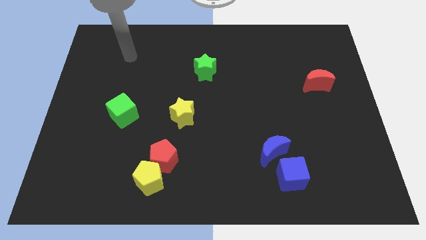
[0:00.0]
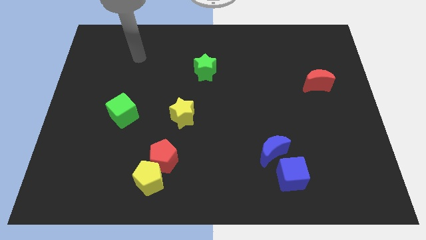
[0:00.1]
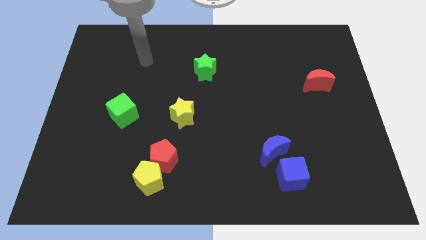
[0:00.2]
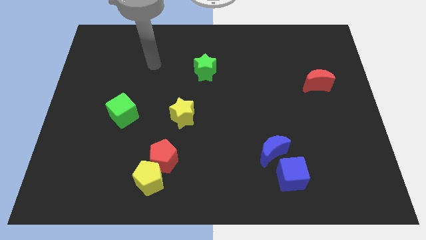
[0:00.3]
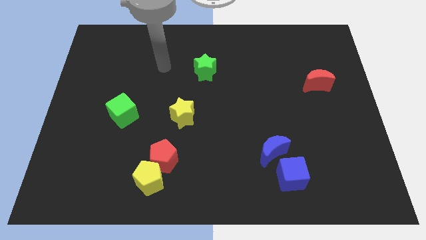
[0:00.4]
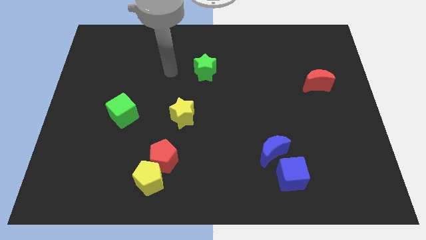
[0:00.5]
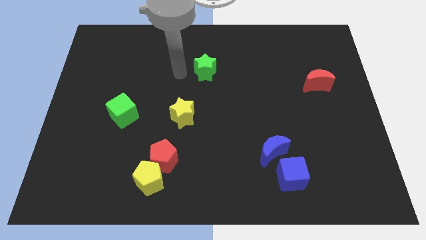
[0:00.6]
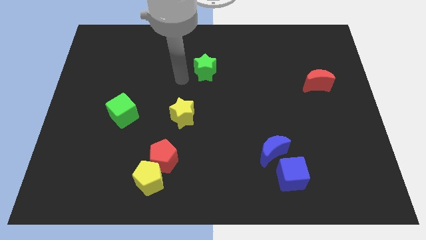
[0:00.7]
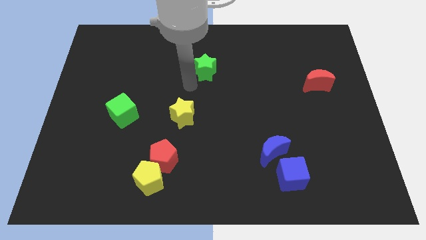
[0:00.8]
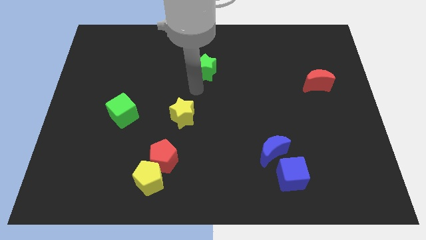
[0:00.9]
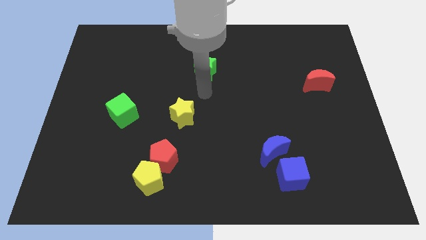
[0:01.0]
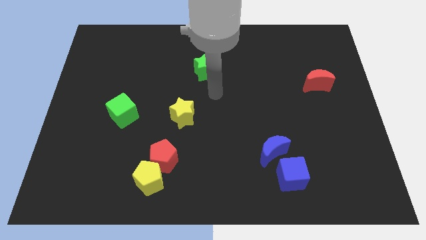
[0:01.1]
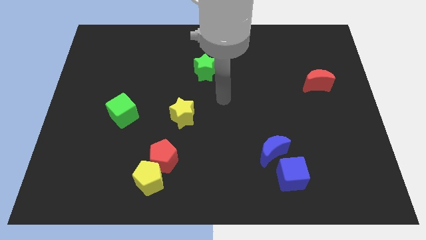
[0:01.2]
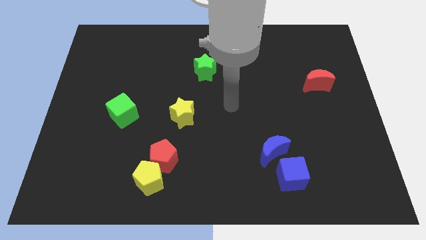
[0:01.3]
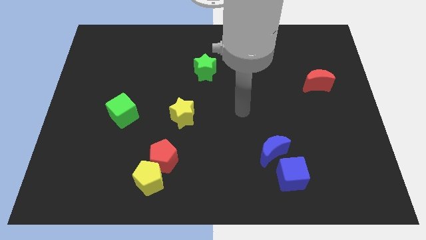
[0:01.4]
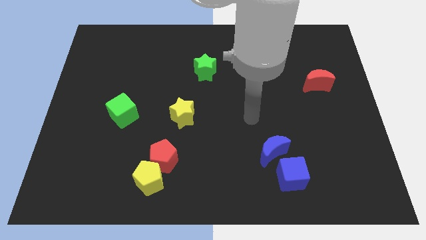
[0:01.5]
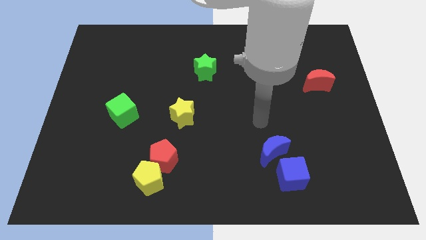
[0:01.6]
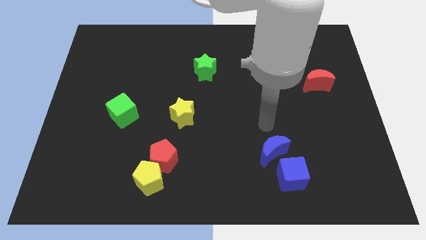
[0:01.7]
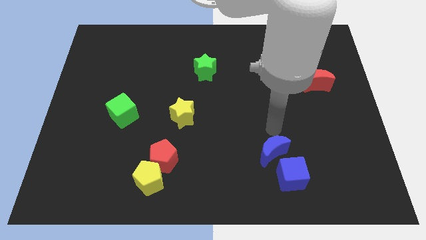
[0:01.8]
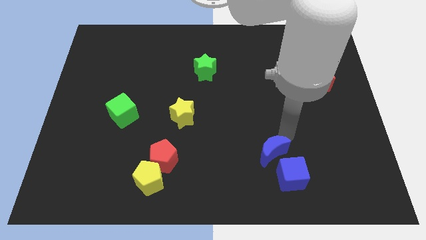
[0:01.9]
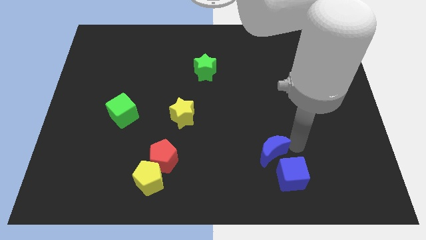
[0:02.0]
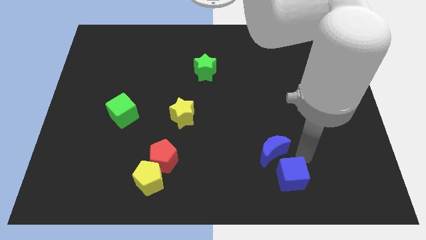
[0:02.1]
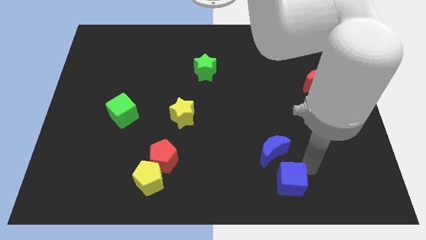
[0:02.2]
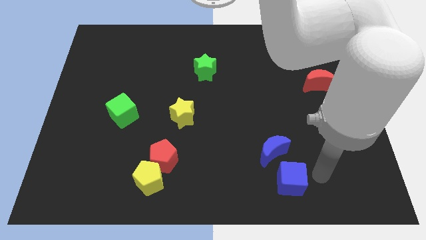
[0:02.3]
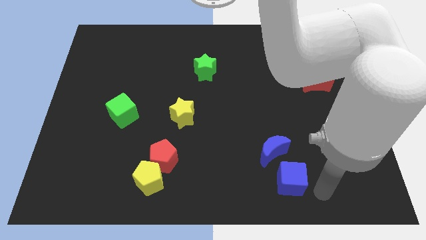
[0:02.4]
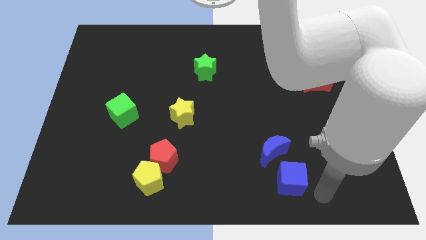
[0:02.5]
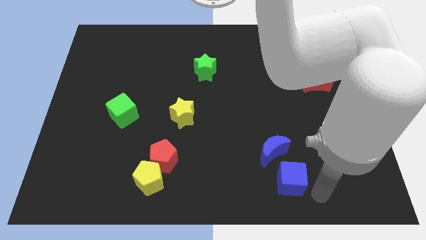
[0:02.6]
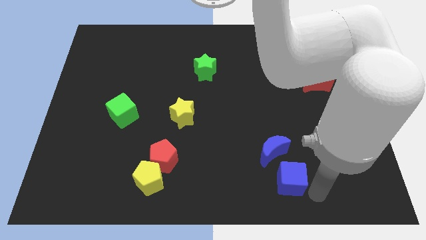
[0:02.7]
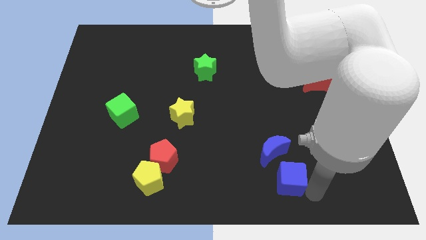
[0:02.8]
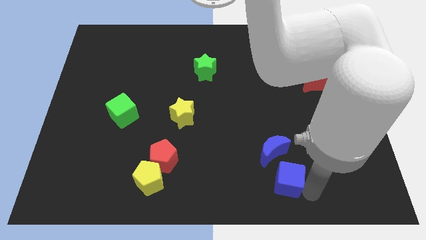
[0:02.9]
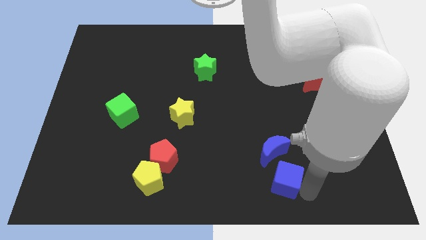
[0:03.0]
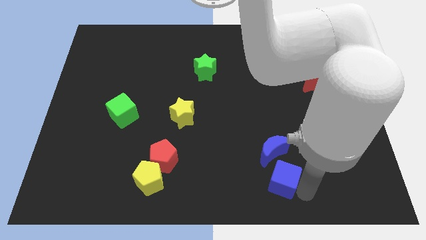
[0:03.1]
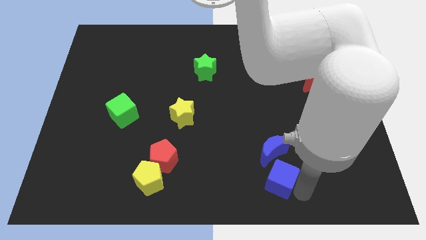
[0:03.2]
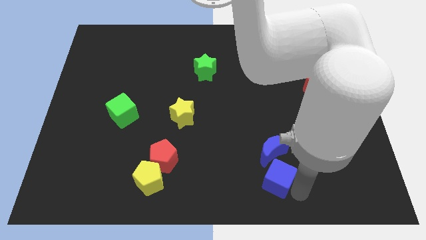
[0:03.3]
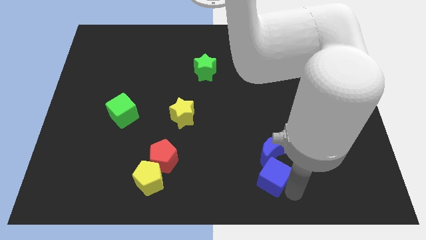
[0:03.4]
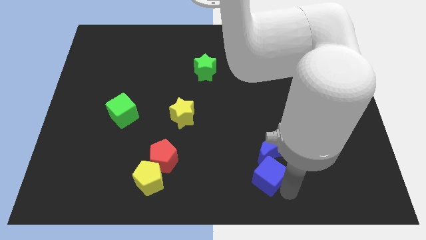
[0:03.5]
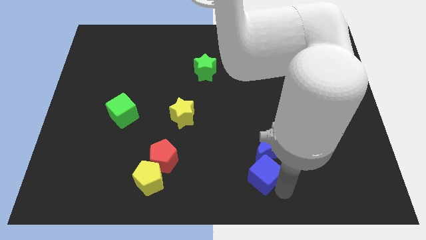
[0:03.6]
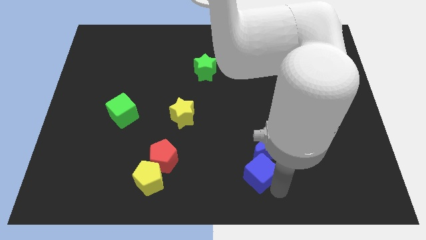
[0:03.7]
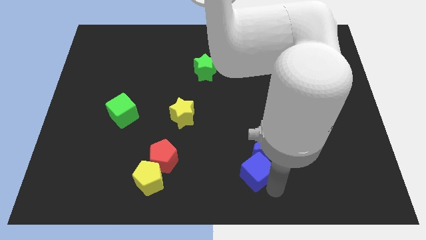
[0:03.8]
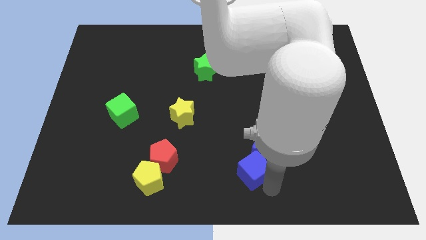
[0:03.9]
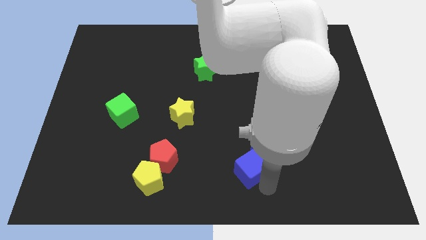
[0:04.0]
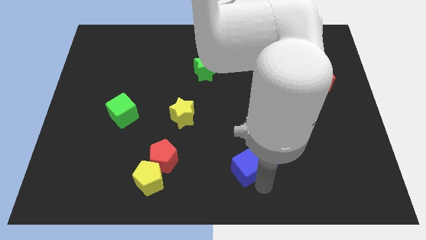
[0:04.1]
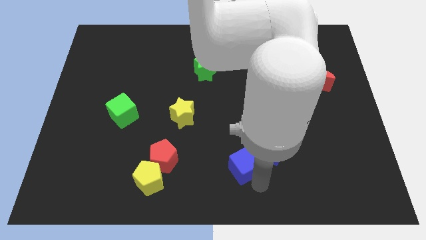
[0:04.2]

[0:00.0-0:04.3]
slightly slide the blue cube upwards and then left

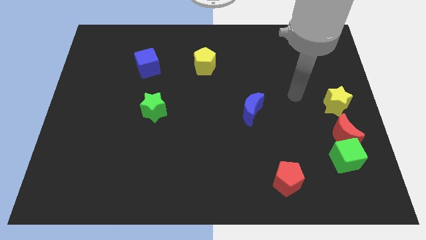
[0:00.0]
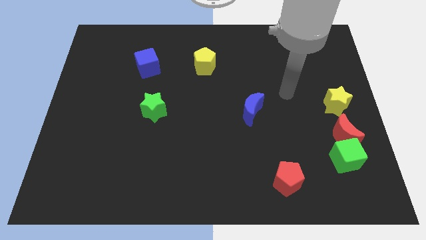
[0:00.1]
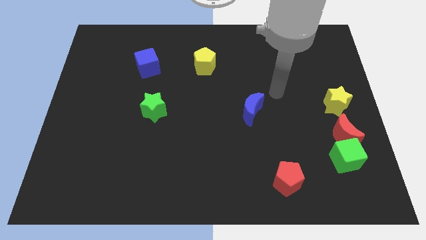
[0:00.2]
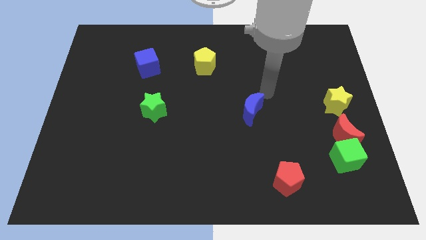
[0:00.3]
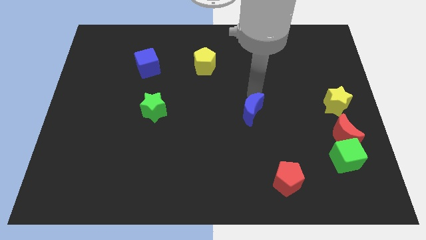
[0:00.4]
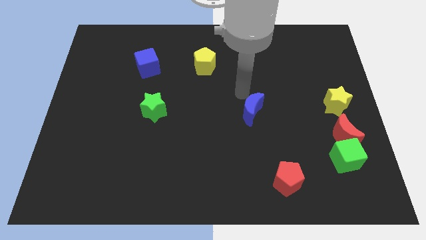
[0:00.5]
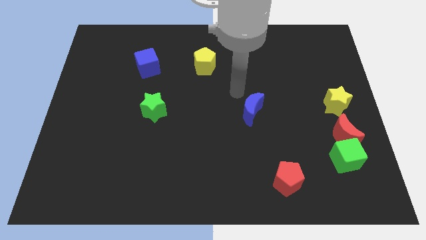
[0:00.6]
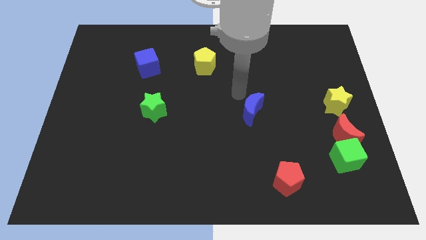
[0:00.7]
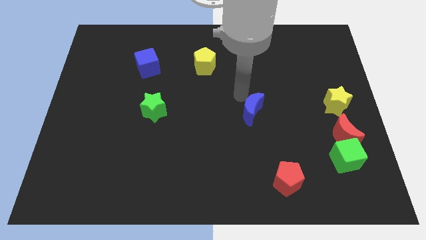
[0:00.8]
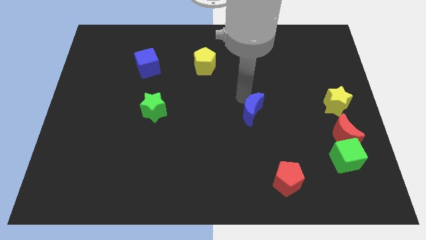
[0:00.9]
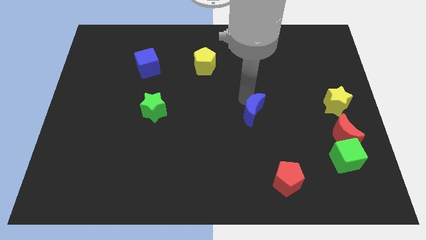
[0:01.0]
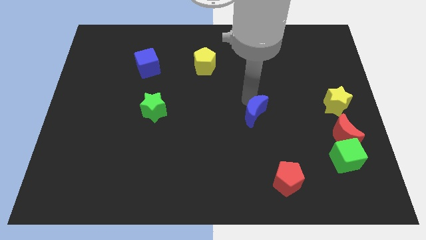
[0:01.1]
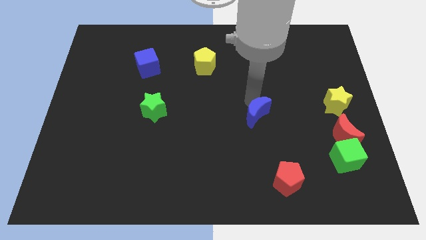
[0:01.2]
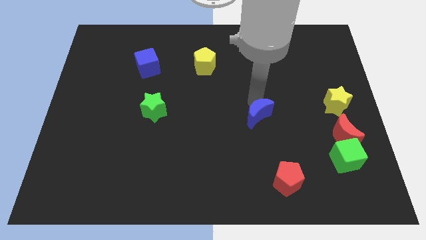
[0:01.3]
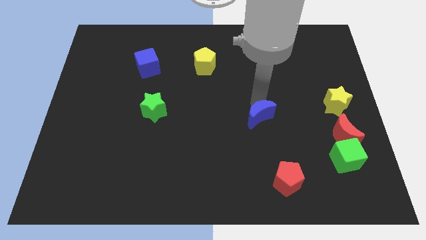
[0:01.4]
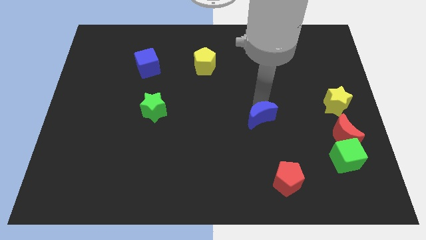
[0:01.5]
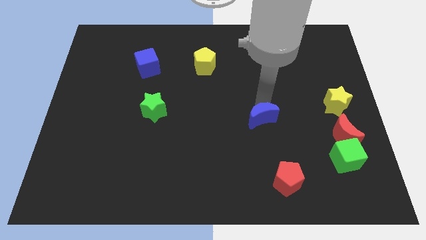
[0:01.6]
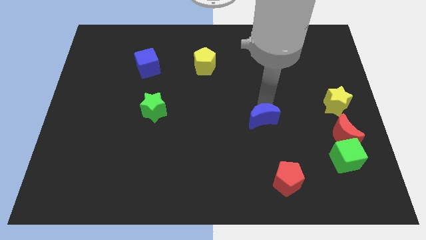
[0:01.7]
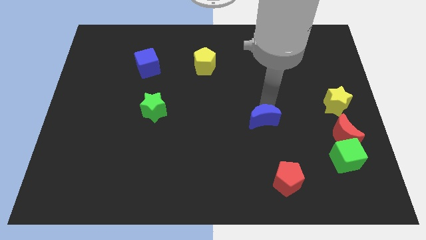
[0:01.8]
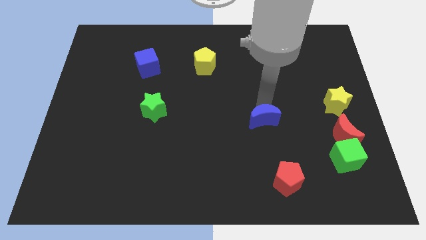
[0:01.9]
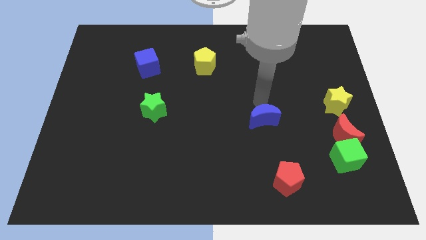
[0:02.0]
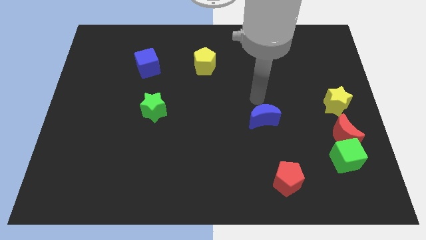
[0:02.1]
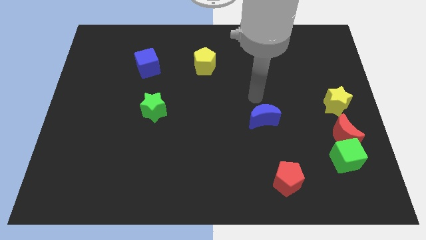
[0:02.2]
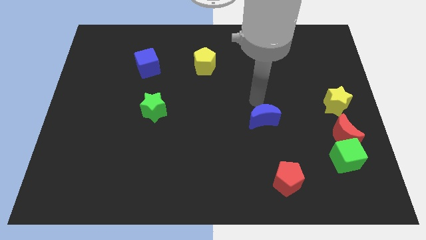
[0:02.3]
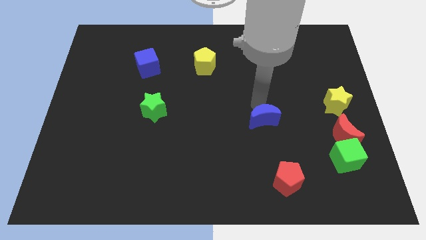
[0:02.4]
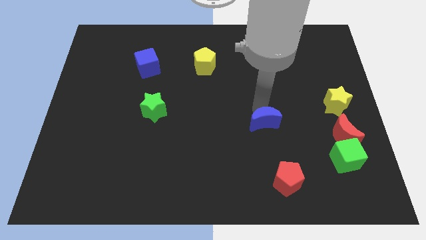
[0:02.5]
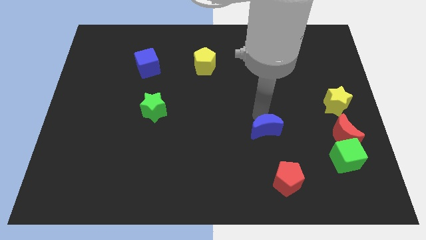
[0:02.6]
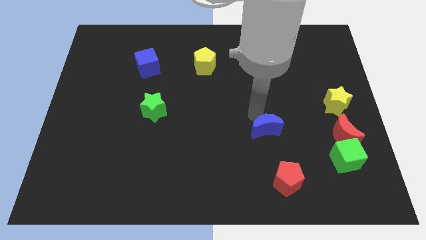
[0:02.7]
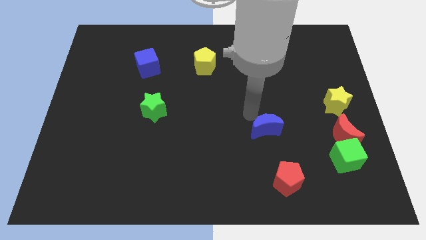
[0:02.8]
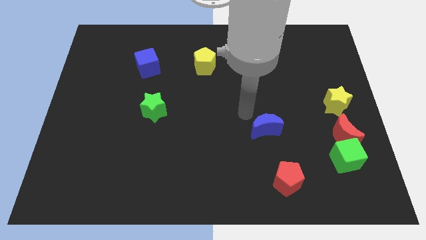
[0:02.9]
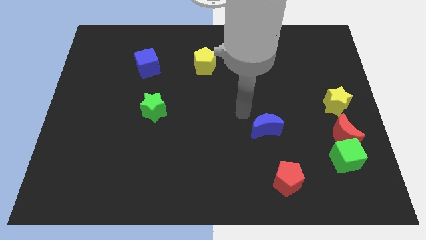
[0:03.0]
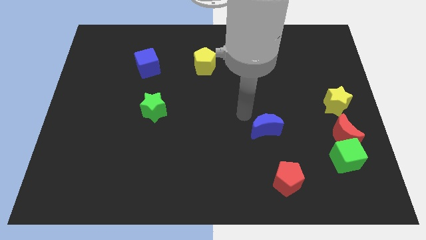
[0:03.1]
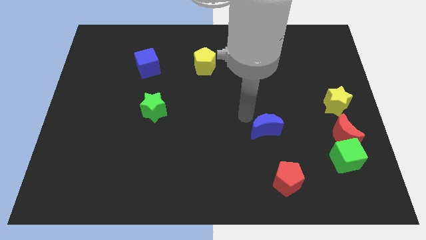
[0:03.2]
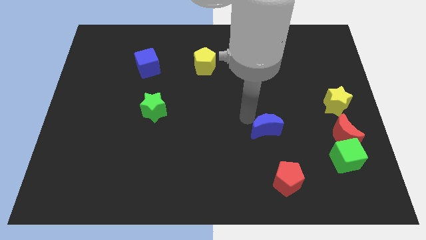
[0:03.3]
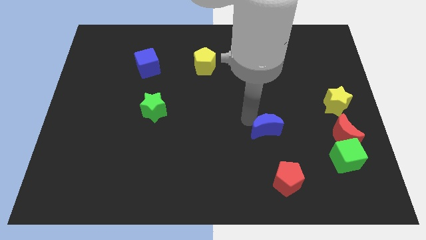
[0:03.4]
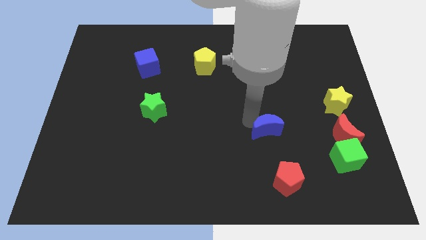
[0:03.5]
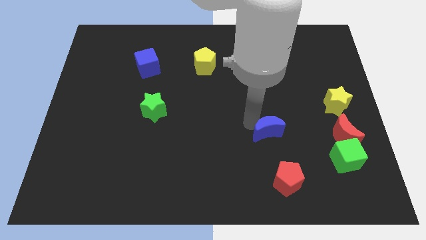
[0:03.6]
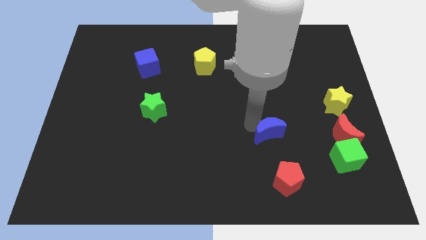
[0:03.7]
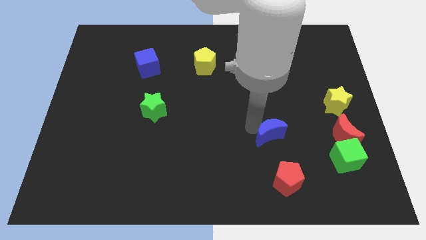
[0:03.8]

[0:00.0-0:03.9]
slightly move the blue moon down and right diagonally

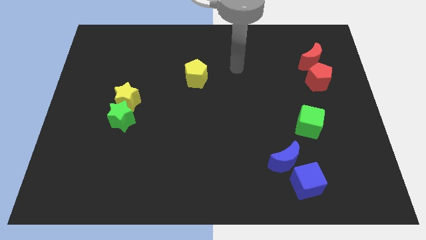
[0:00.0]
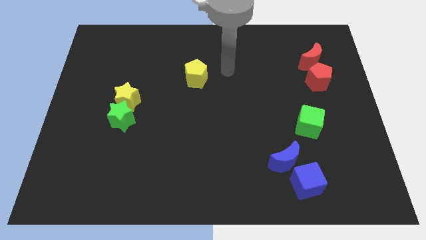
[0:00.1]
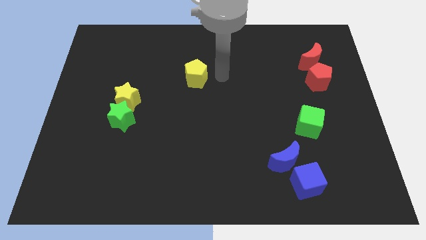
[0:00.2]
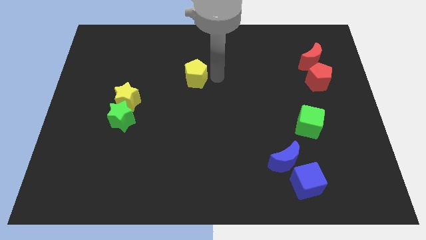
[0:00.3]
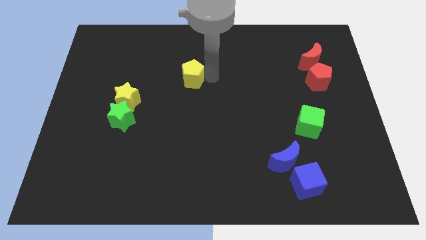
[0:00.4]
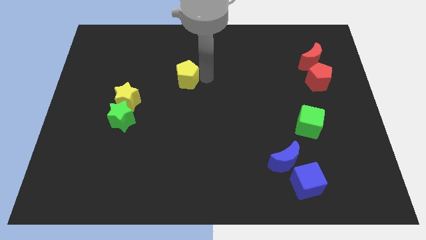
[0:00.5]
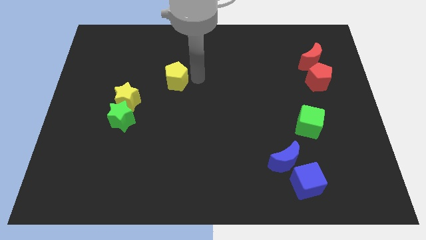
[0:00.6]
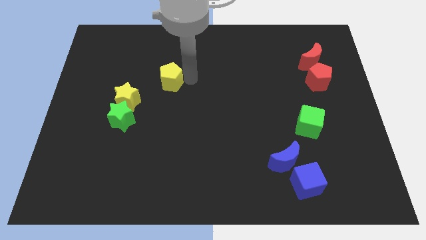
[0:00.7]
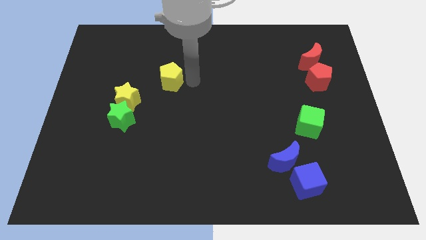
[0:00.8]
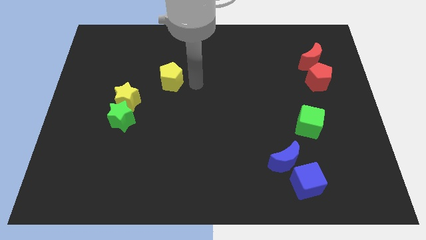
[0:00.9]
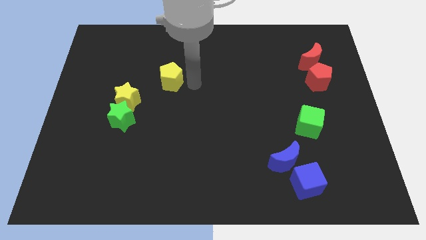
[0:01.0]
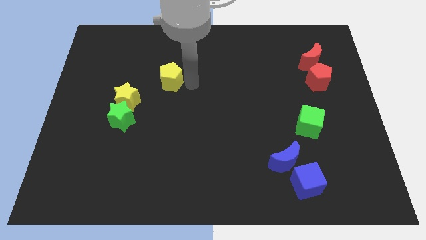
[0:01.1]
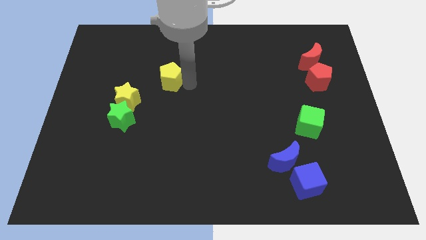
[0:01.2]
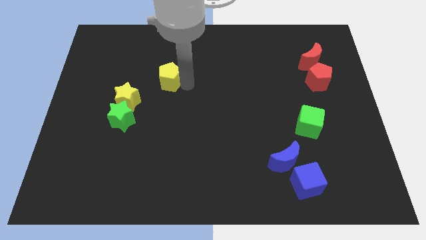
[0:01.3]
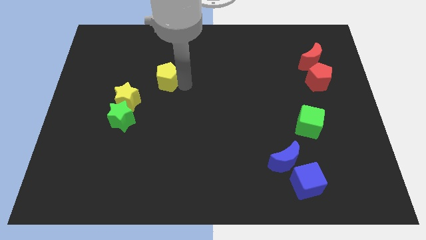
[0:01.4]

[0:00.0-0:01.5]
slide the yellow pentagon a bit left
